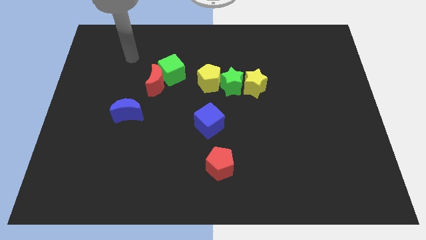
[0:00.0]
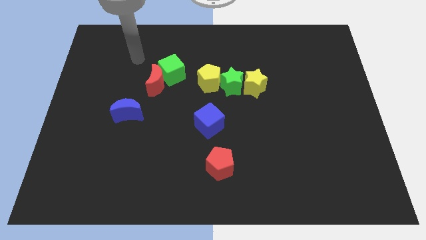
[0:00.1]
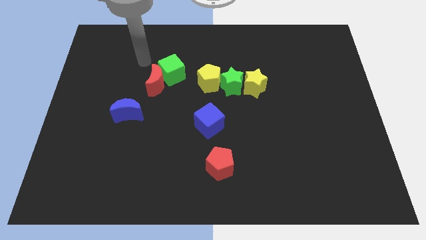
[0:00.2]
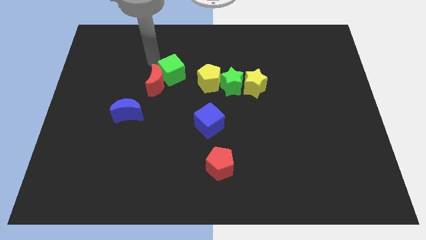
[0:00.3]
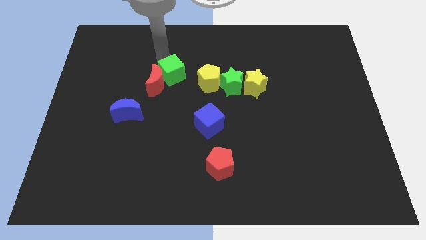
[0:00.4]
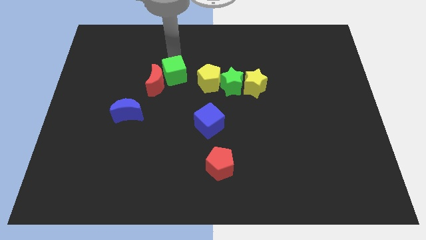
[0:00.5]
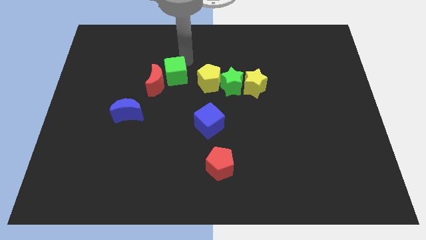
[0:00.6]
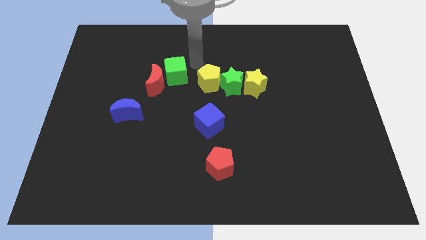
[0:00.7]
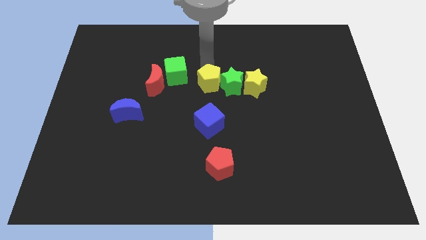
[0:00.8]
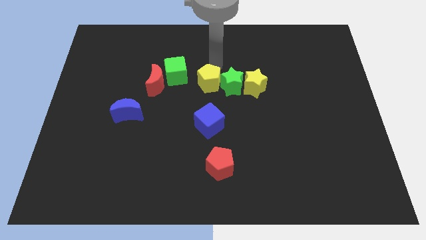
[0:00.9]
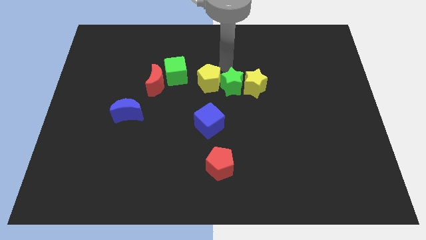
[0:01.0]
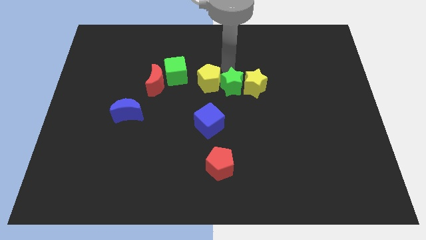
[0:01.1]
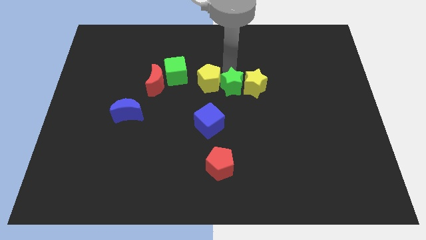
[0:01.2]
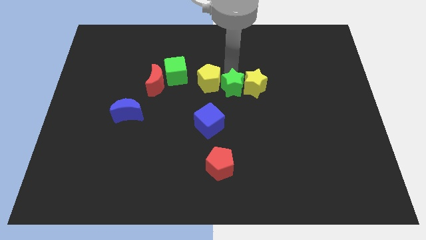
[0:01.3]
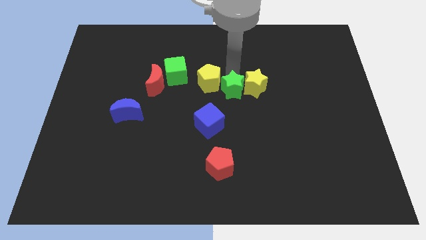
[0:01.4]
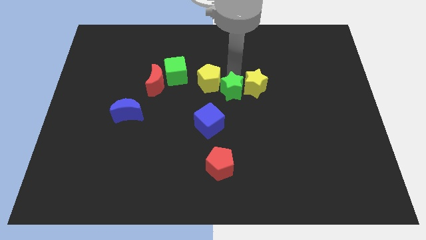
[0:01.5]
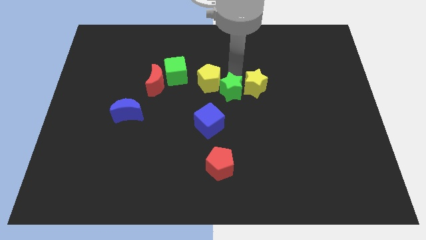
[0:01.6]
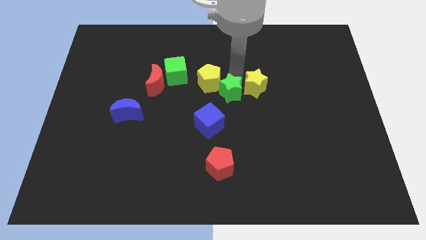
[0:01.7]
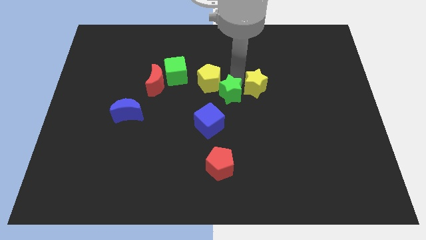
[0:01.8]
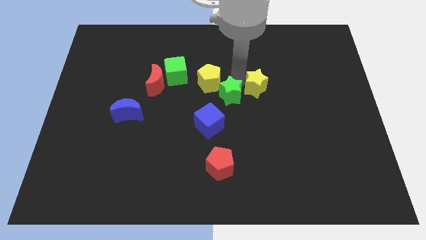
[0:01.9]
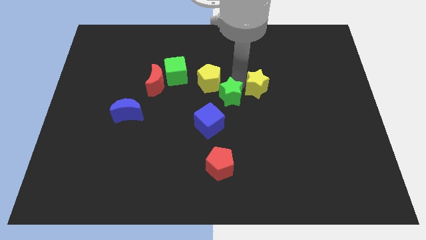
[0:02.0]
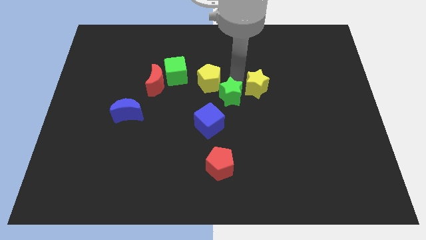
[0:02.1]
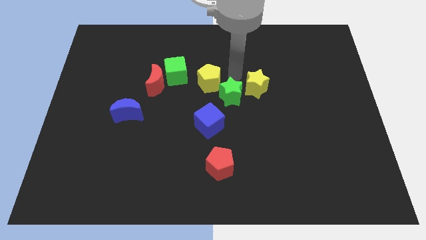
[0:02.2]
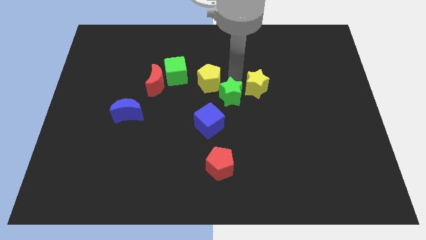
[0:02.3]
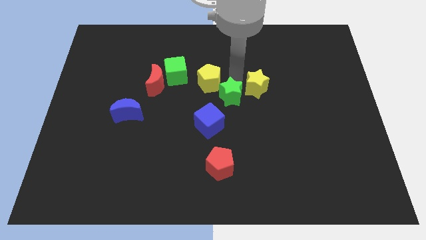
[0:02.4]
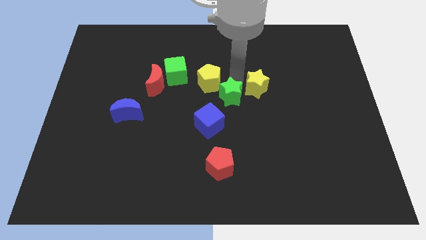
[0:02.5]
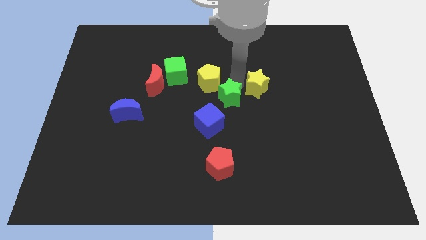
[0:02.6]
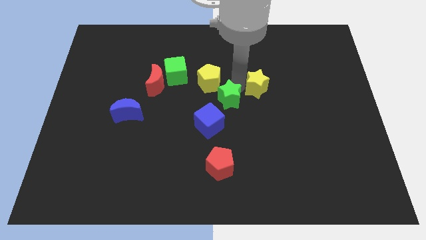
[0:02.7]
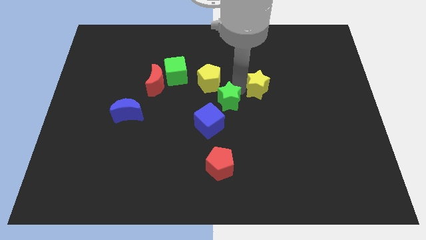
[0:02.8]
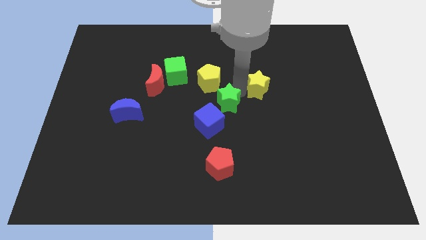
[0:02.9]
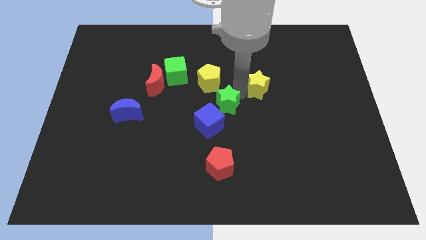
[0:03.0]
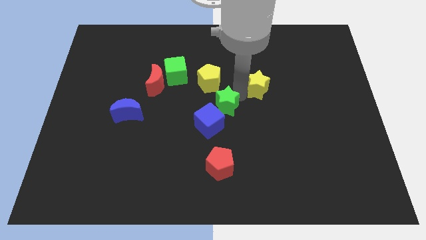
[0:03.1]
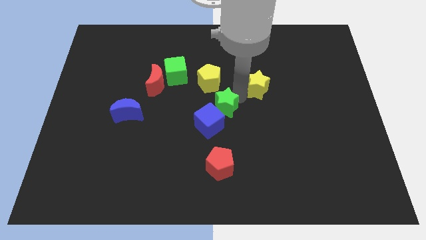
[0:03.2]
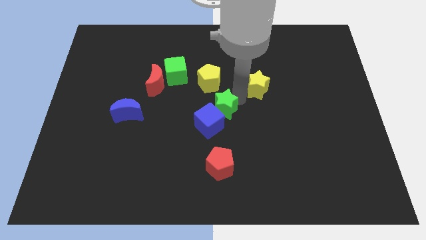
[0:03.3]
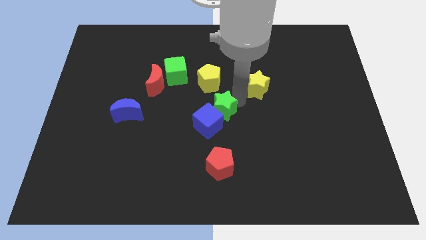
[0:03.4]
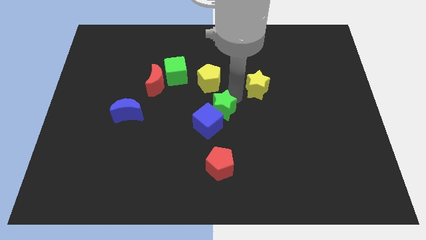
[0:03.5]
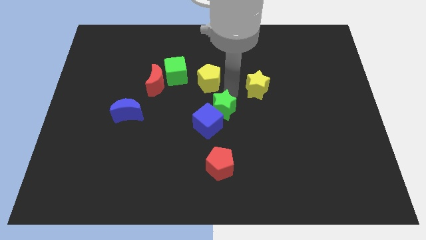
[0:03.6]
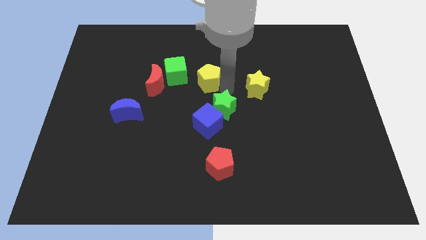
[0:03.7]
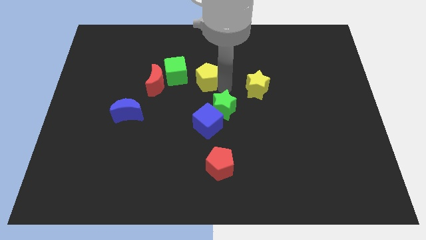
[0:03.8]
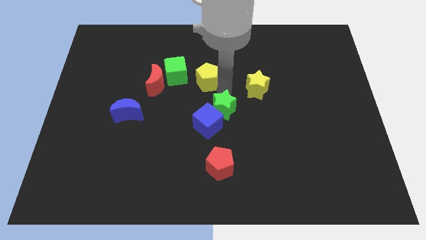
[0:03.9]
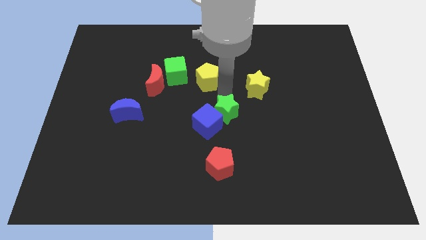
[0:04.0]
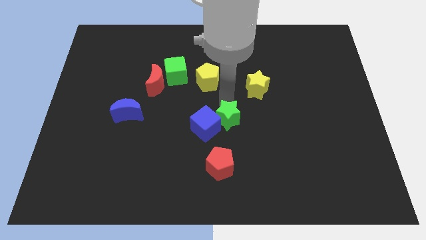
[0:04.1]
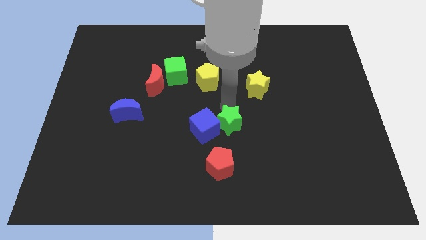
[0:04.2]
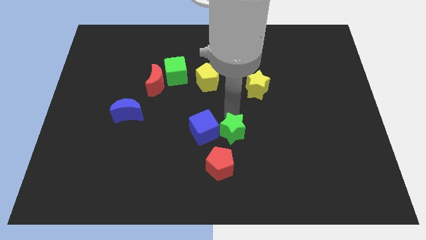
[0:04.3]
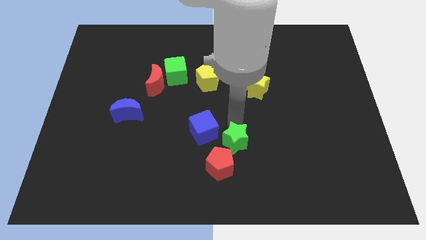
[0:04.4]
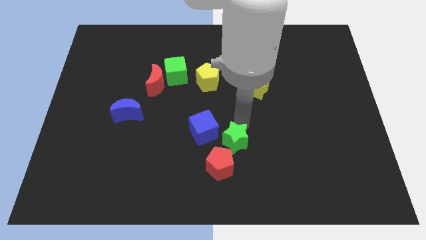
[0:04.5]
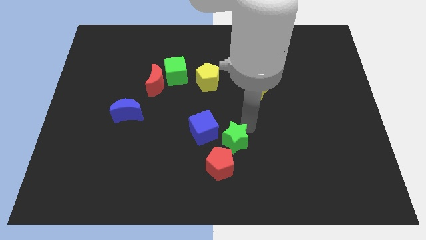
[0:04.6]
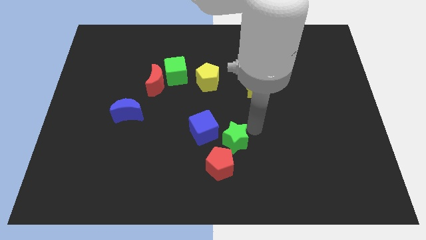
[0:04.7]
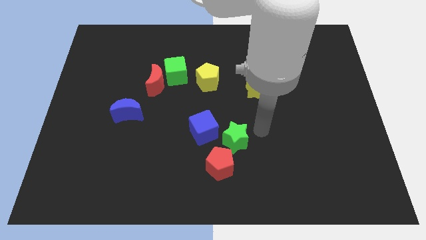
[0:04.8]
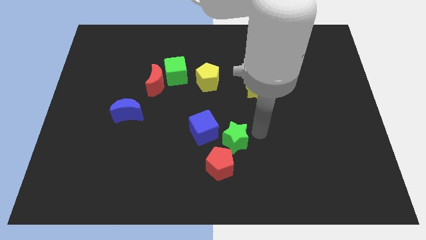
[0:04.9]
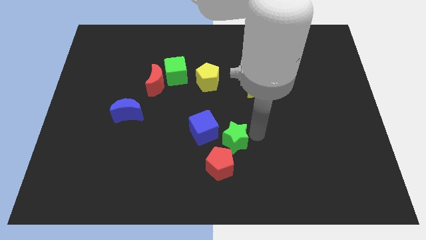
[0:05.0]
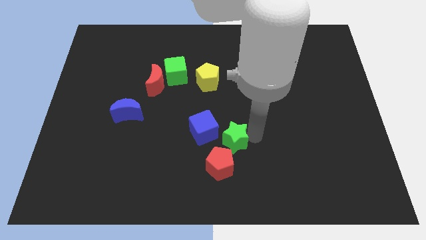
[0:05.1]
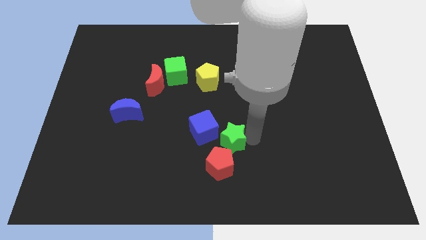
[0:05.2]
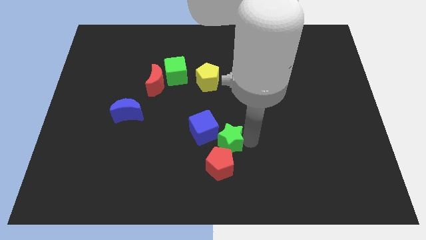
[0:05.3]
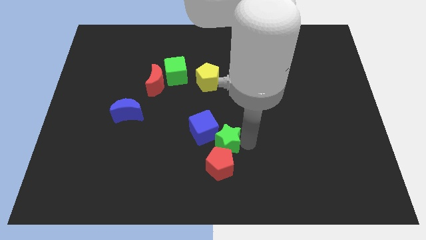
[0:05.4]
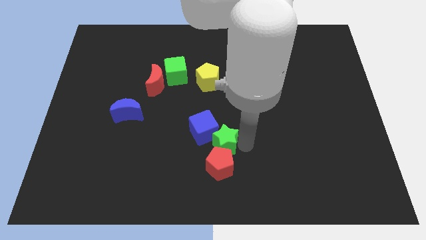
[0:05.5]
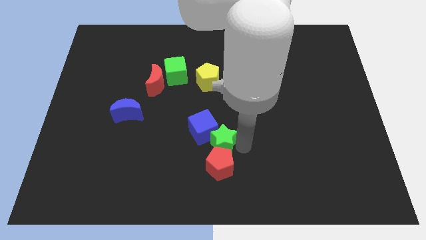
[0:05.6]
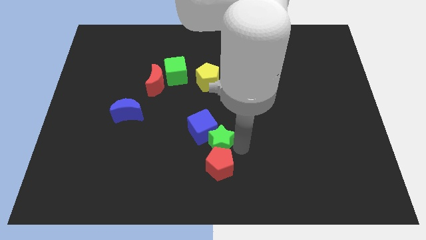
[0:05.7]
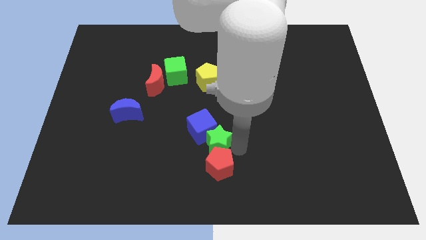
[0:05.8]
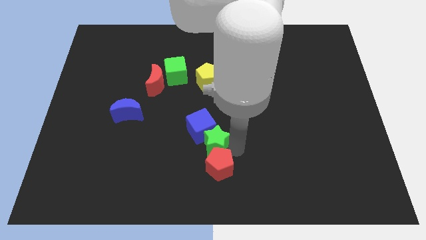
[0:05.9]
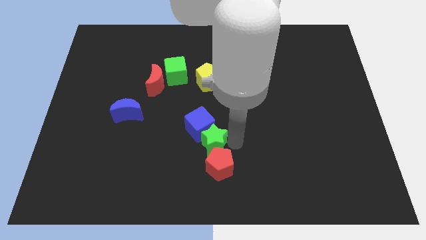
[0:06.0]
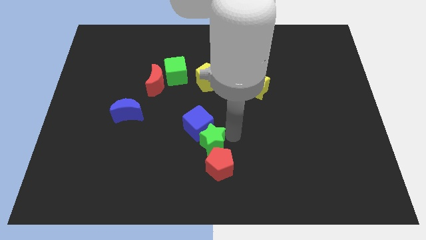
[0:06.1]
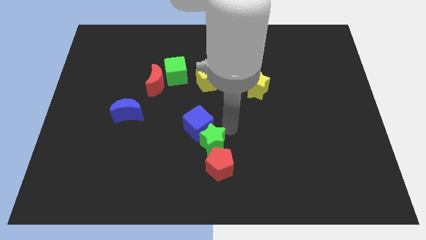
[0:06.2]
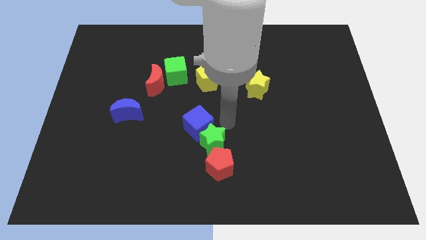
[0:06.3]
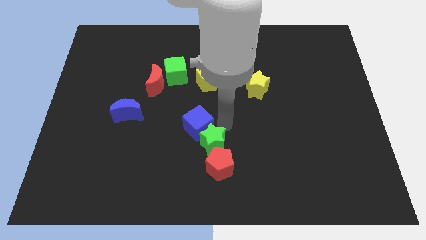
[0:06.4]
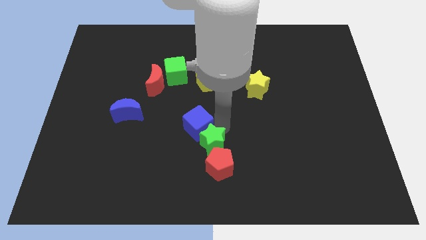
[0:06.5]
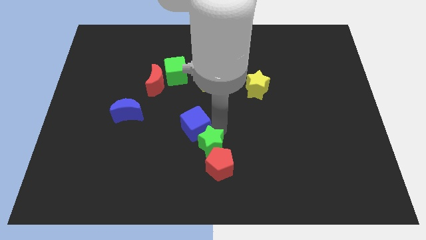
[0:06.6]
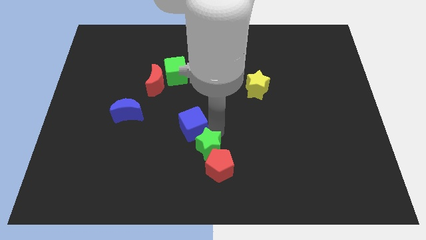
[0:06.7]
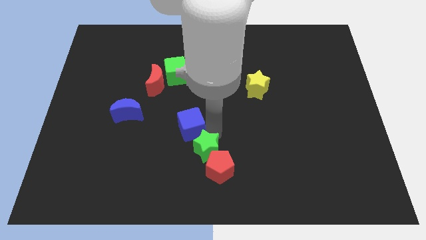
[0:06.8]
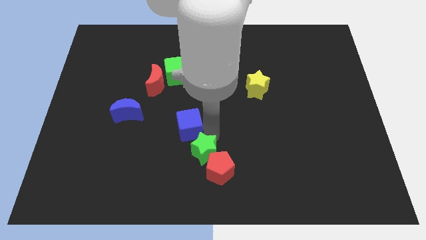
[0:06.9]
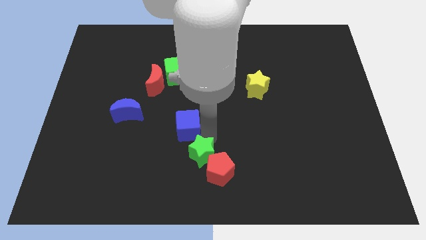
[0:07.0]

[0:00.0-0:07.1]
put the green star to the bottom

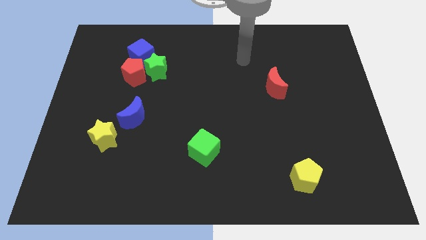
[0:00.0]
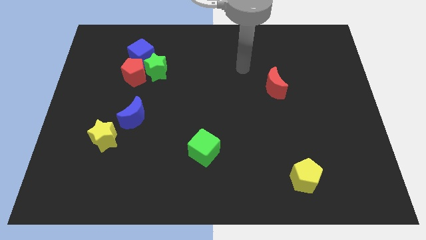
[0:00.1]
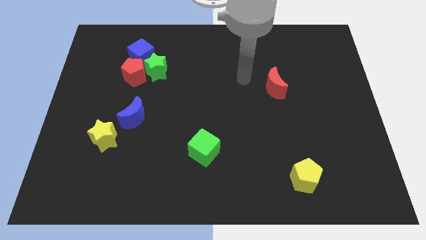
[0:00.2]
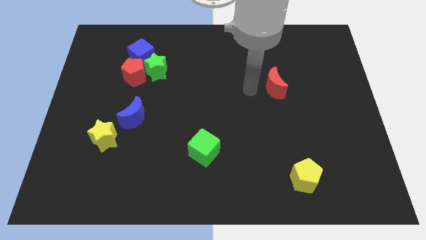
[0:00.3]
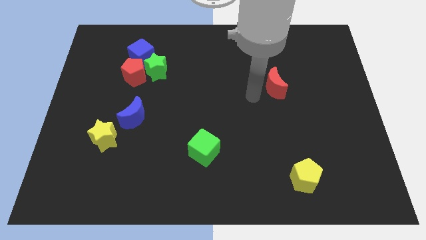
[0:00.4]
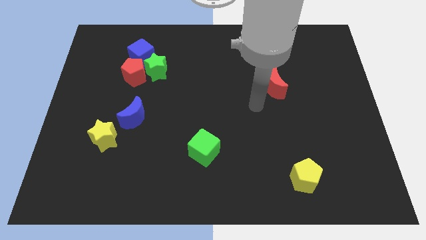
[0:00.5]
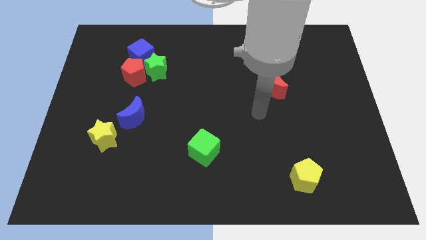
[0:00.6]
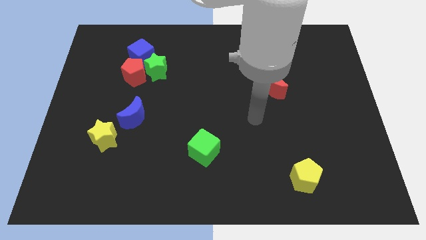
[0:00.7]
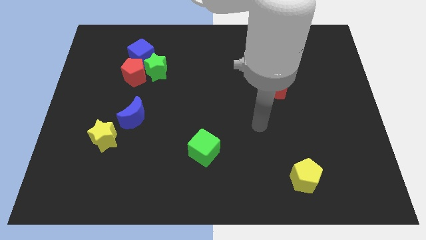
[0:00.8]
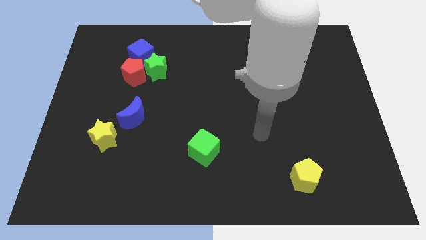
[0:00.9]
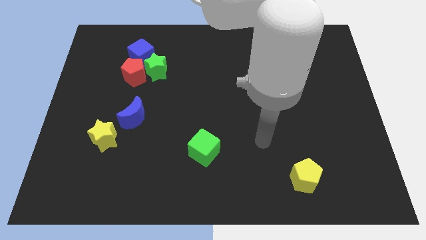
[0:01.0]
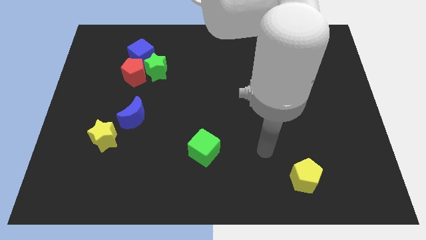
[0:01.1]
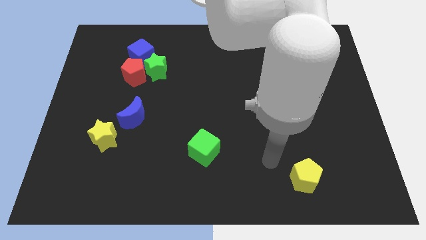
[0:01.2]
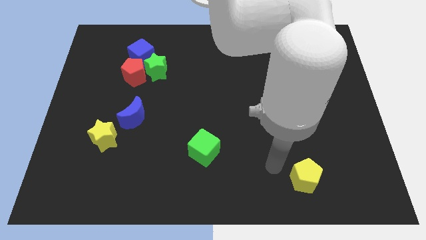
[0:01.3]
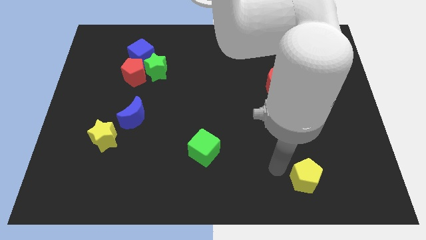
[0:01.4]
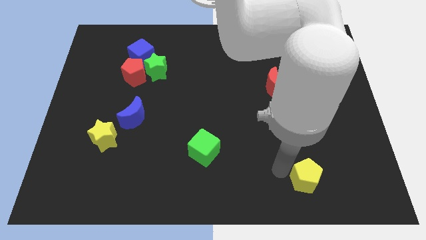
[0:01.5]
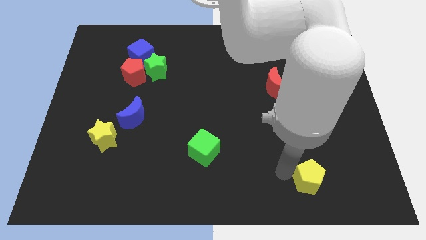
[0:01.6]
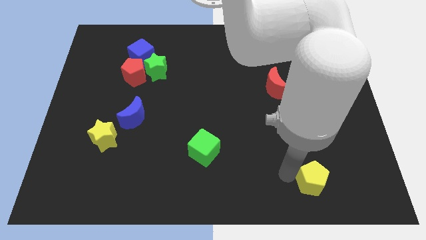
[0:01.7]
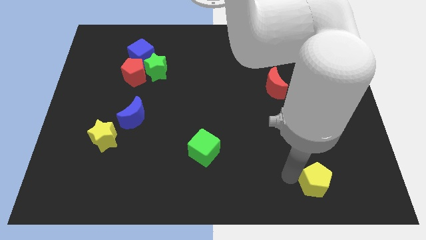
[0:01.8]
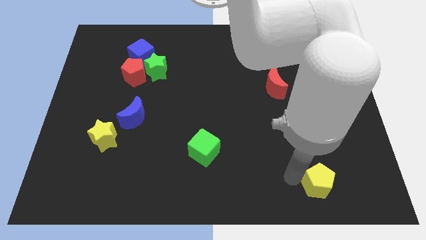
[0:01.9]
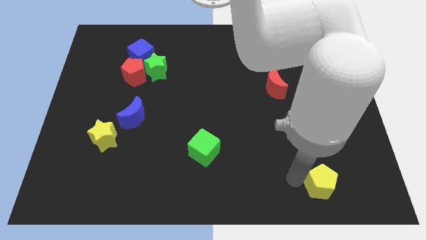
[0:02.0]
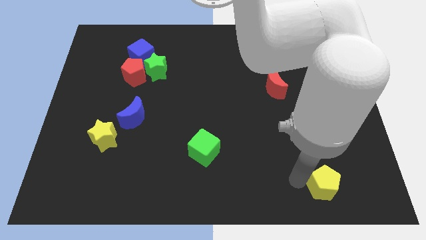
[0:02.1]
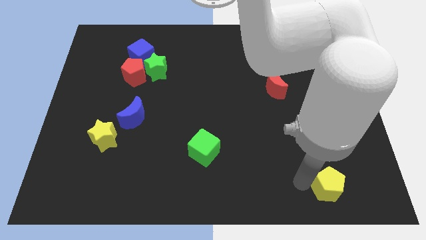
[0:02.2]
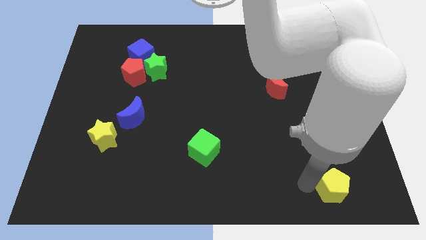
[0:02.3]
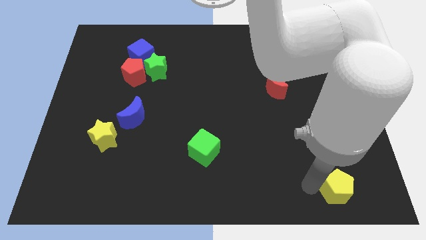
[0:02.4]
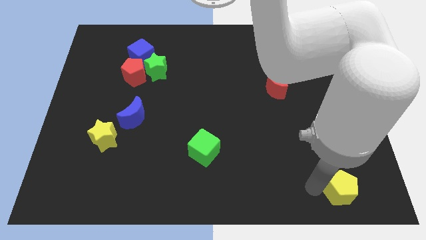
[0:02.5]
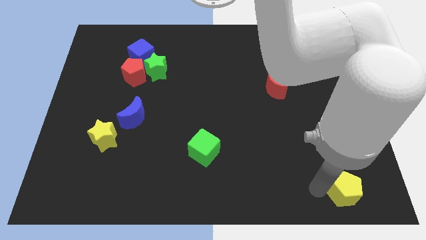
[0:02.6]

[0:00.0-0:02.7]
push the yellow pentagon to the bottom right
